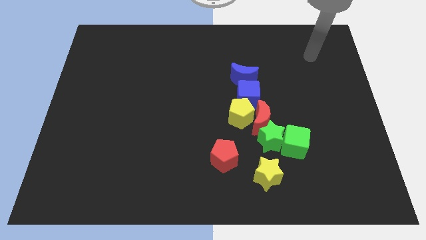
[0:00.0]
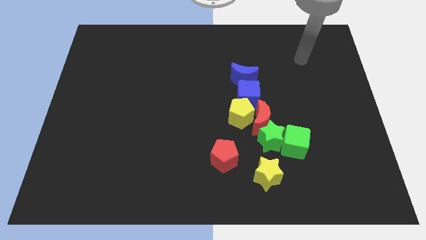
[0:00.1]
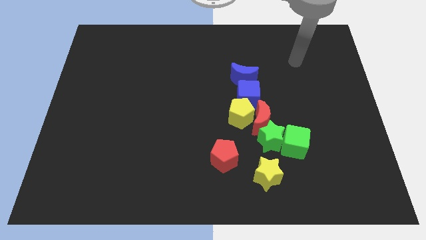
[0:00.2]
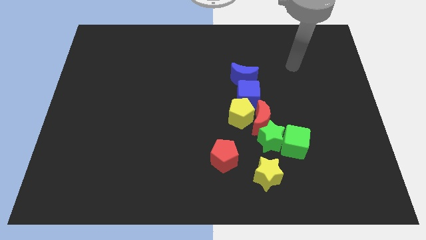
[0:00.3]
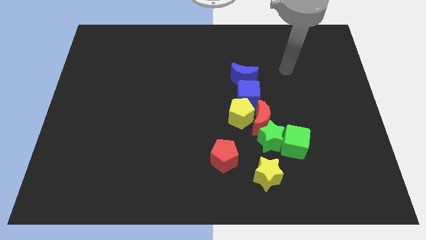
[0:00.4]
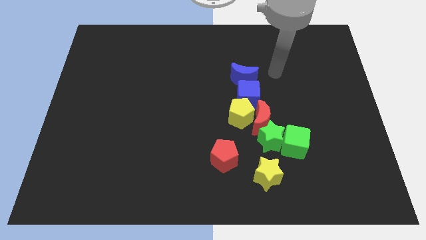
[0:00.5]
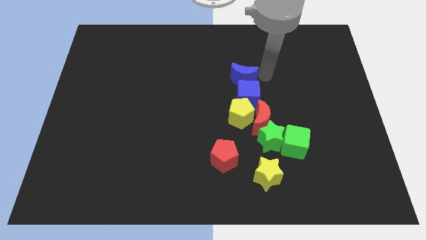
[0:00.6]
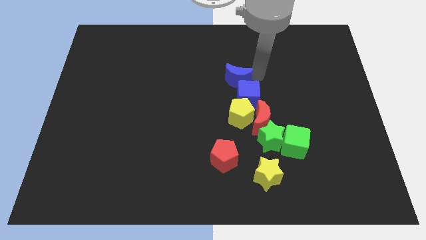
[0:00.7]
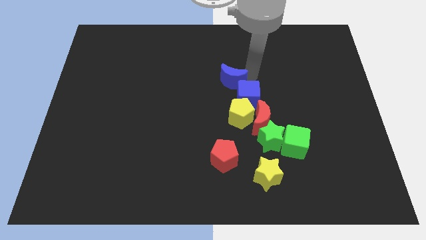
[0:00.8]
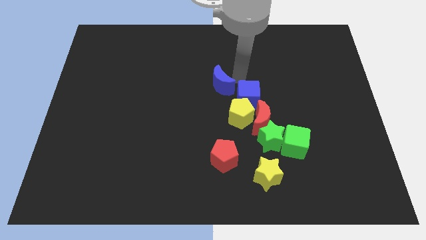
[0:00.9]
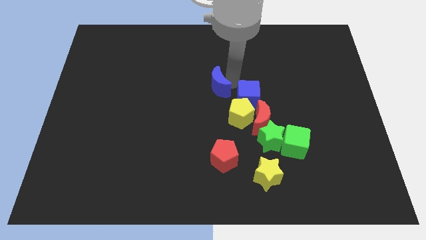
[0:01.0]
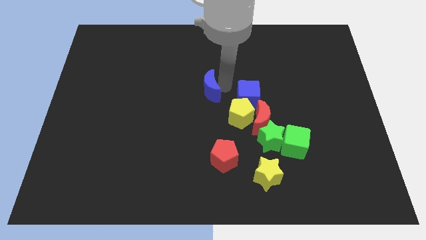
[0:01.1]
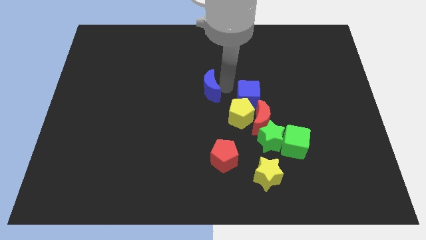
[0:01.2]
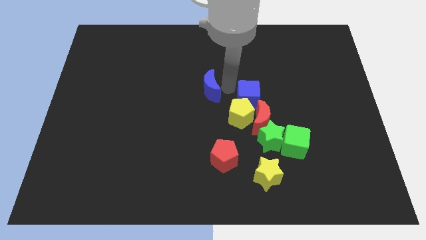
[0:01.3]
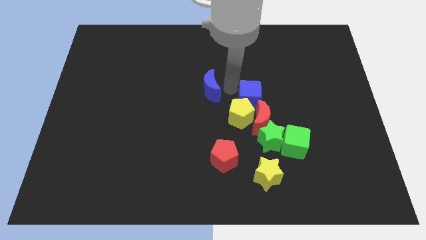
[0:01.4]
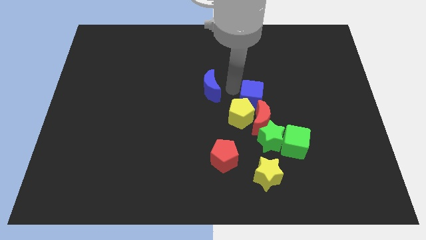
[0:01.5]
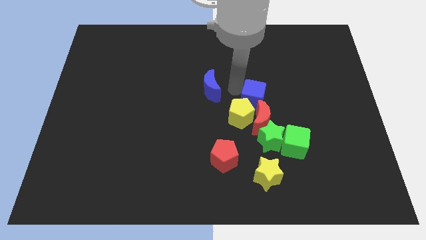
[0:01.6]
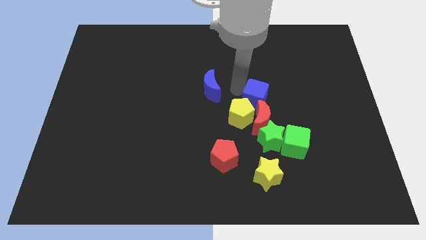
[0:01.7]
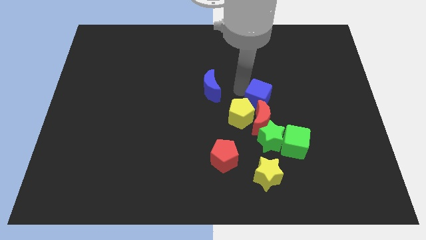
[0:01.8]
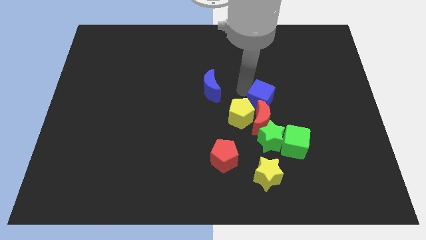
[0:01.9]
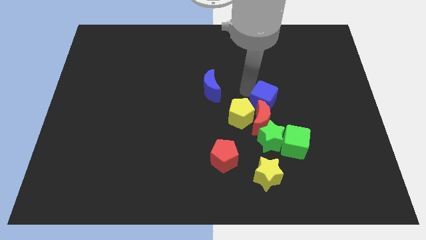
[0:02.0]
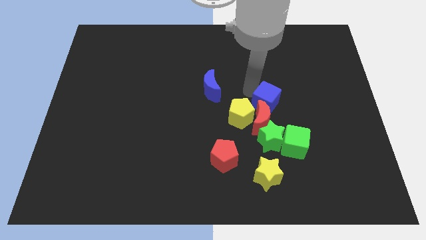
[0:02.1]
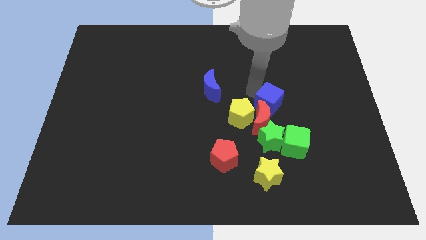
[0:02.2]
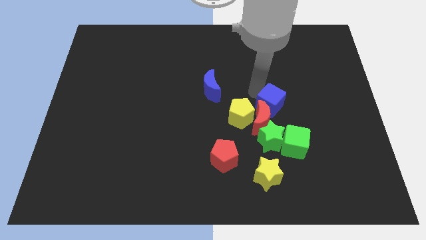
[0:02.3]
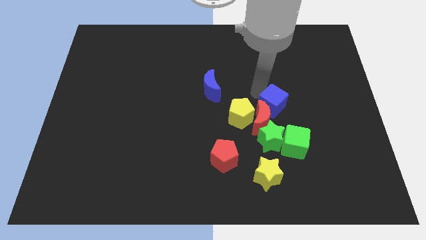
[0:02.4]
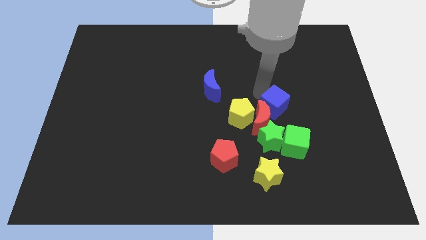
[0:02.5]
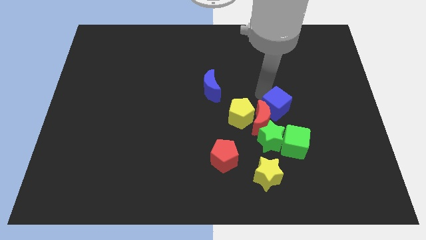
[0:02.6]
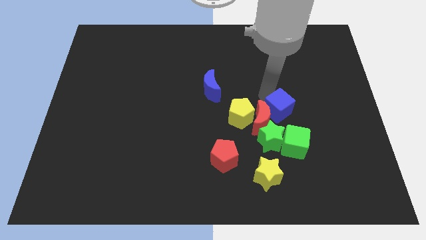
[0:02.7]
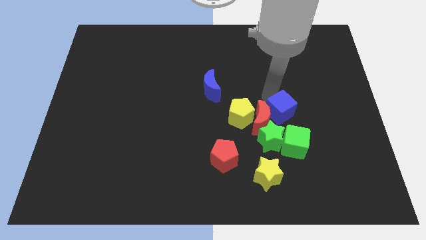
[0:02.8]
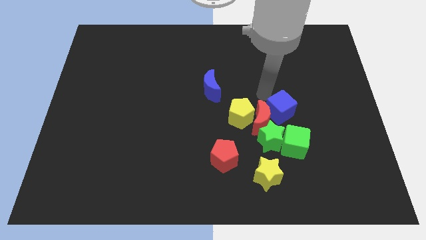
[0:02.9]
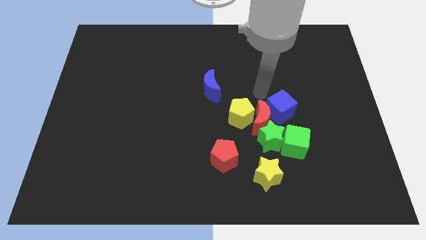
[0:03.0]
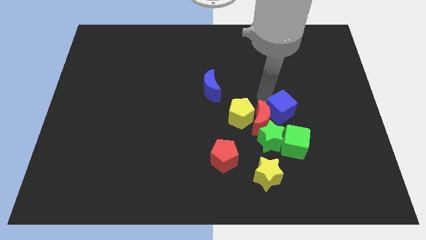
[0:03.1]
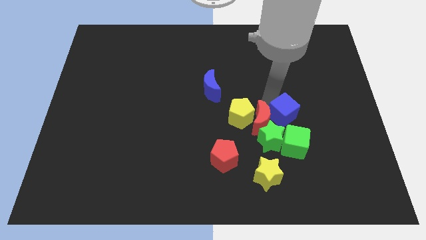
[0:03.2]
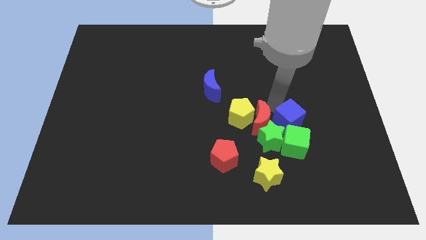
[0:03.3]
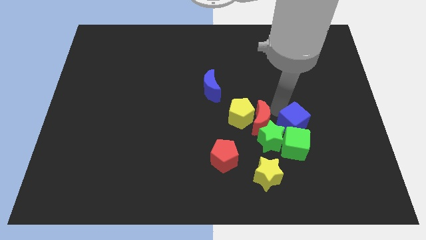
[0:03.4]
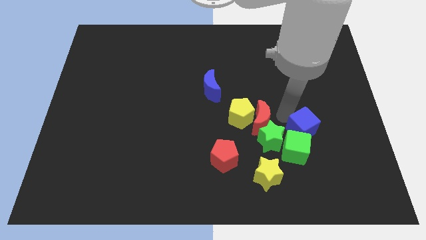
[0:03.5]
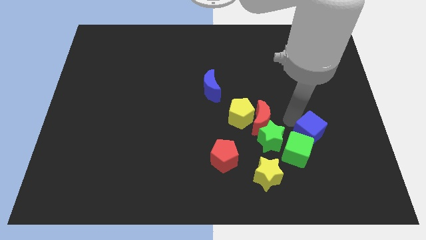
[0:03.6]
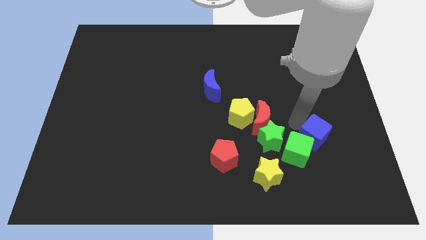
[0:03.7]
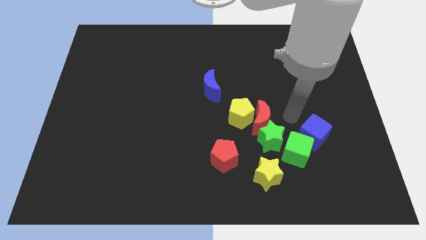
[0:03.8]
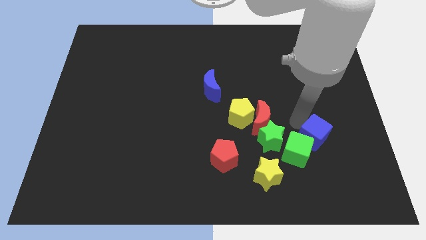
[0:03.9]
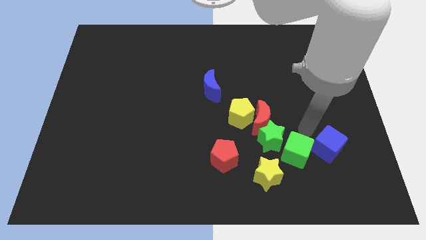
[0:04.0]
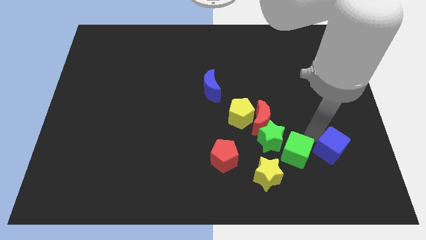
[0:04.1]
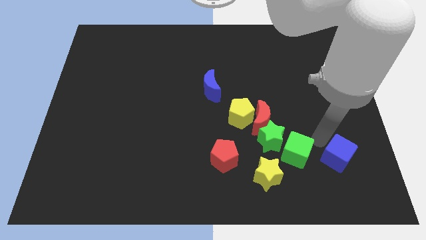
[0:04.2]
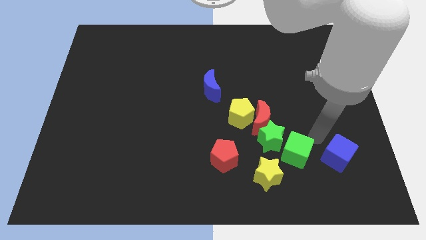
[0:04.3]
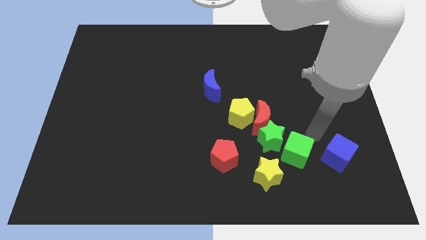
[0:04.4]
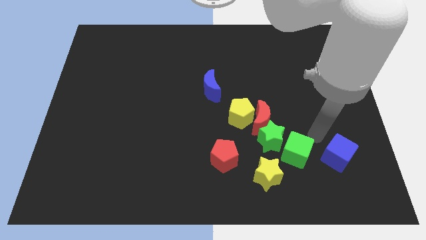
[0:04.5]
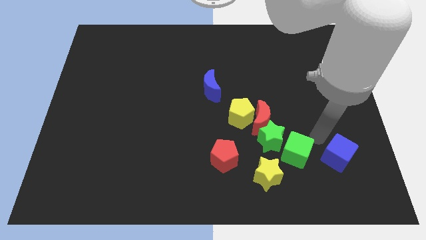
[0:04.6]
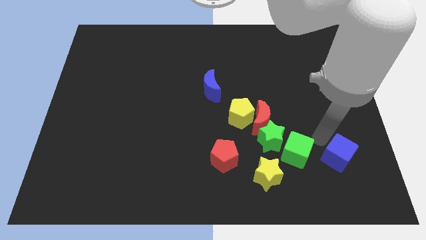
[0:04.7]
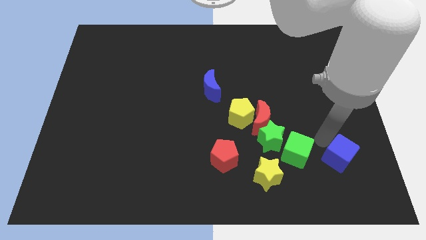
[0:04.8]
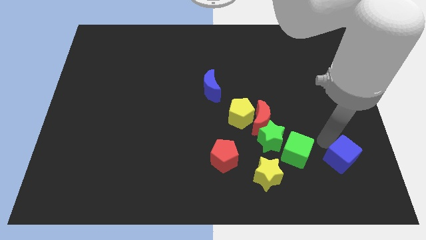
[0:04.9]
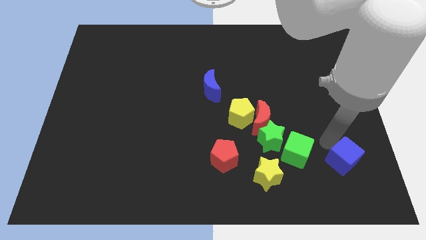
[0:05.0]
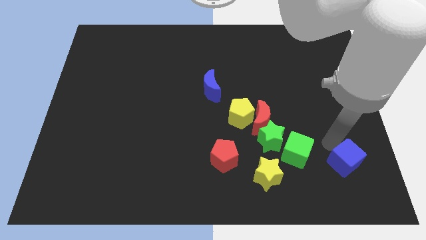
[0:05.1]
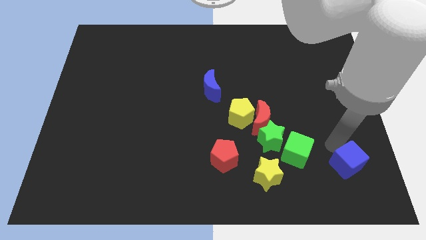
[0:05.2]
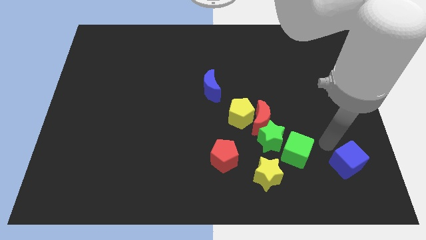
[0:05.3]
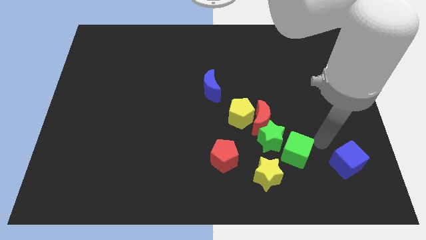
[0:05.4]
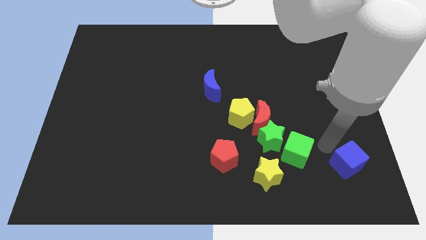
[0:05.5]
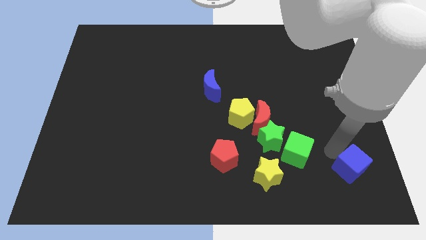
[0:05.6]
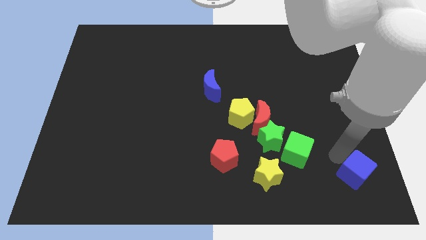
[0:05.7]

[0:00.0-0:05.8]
push the blue cube to the bottom right of the board

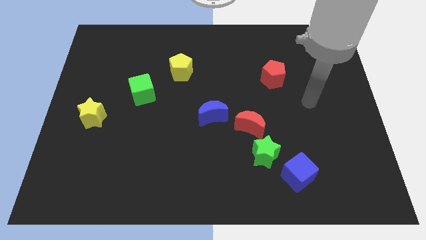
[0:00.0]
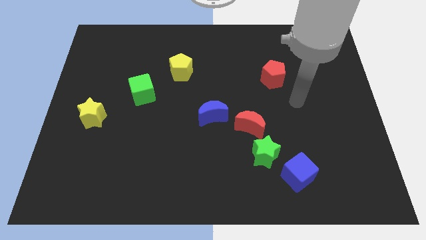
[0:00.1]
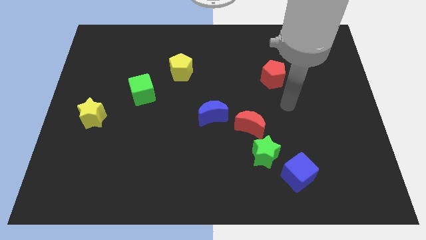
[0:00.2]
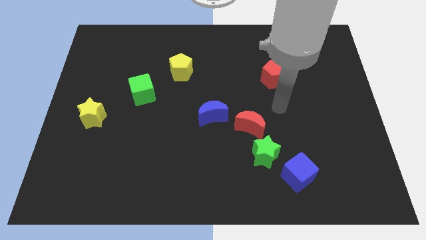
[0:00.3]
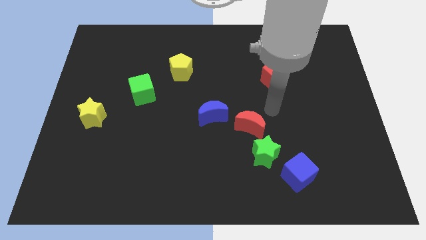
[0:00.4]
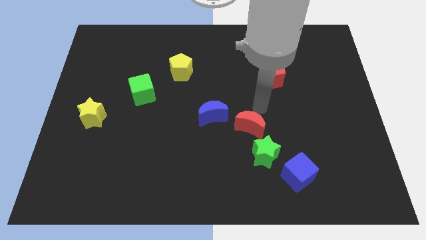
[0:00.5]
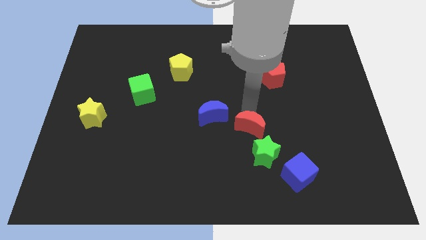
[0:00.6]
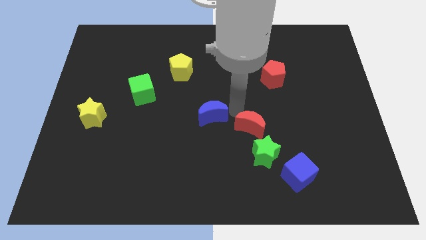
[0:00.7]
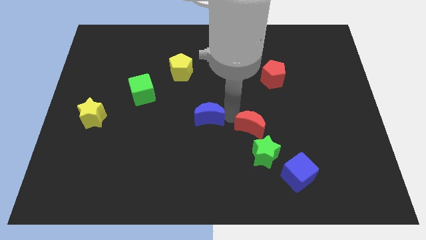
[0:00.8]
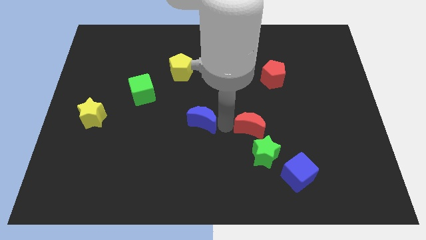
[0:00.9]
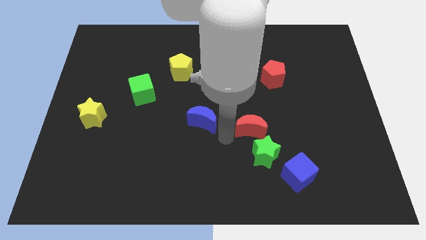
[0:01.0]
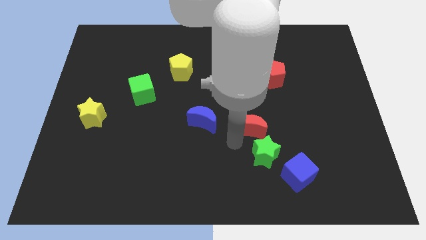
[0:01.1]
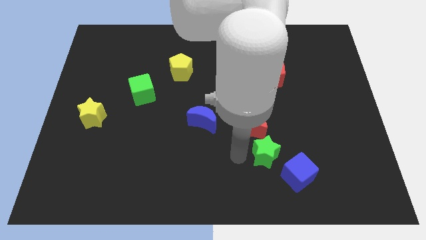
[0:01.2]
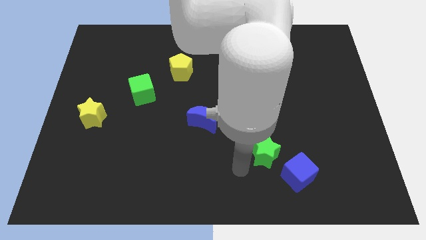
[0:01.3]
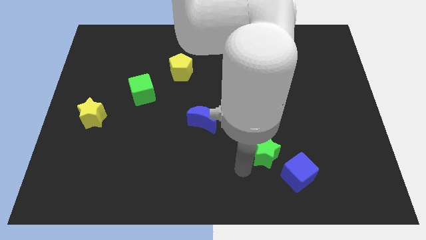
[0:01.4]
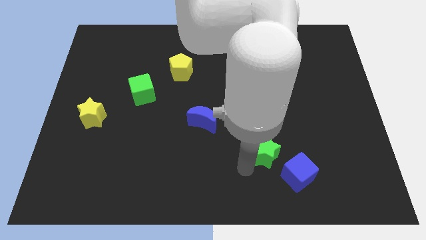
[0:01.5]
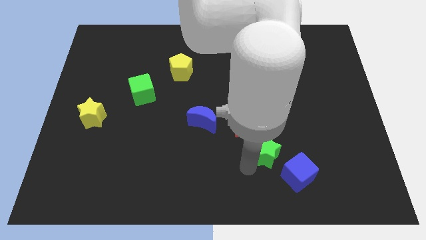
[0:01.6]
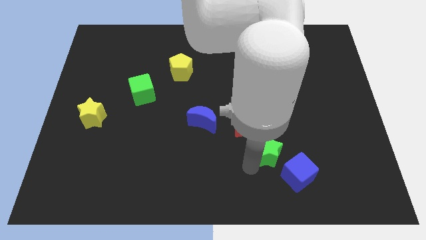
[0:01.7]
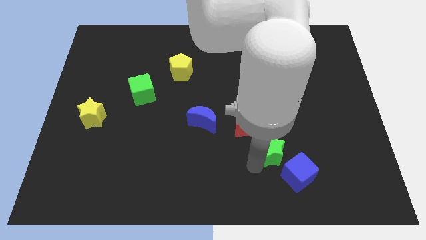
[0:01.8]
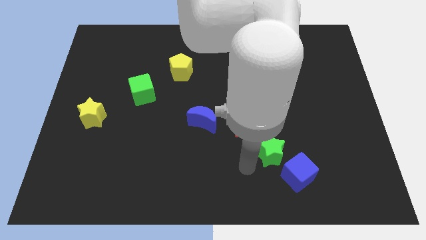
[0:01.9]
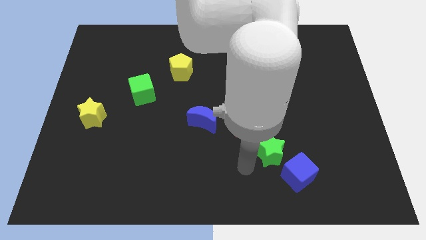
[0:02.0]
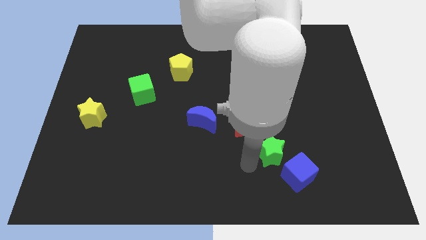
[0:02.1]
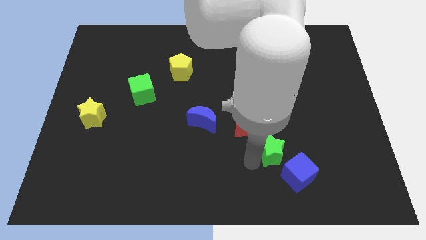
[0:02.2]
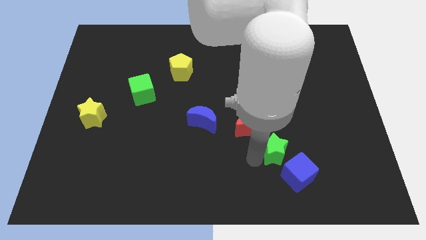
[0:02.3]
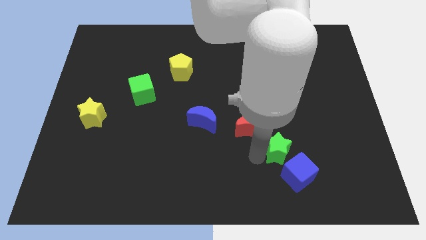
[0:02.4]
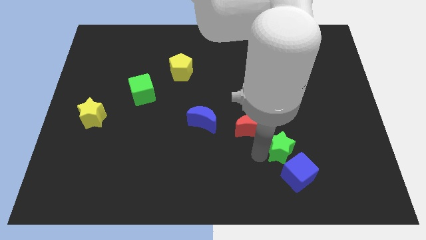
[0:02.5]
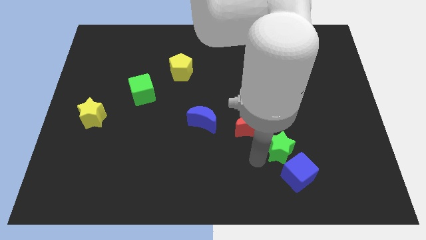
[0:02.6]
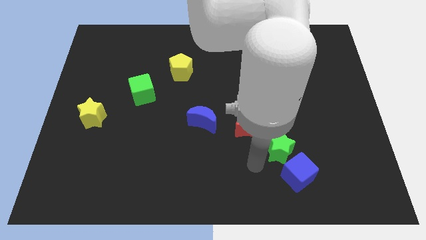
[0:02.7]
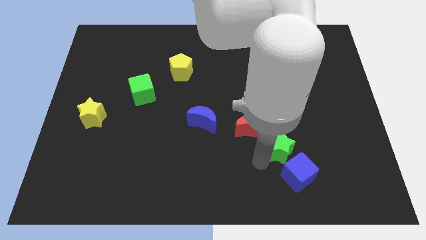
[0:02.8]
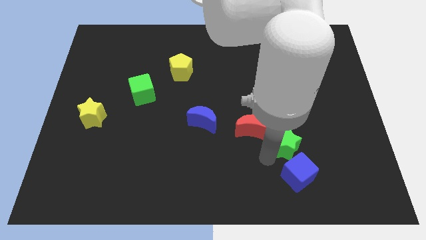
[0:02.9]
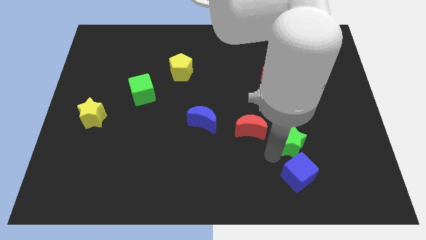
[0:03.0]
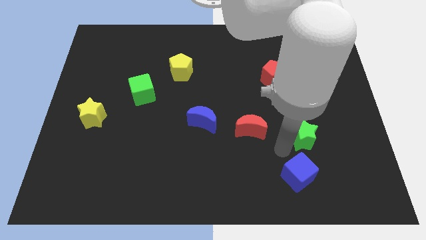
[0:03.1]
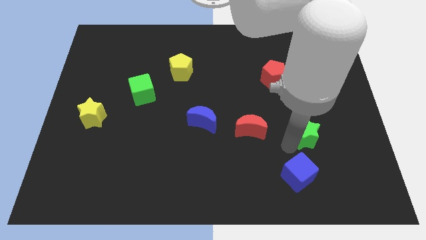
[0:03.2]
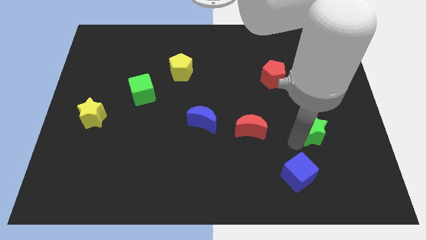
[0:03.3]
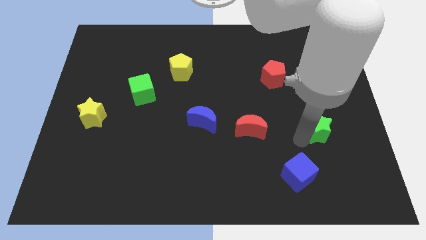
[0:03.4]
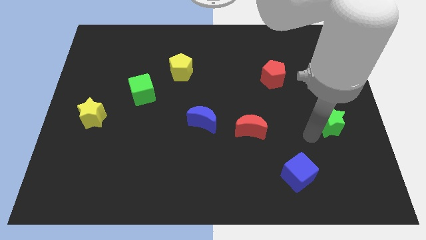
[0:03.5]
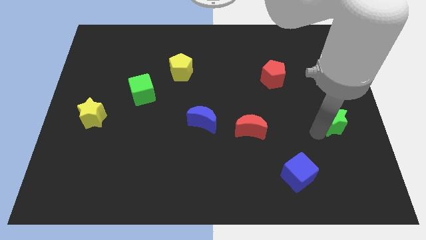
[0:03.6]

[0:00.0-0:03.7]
move the green star to the center right
